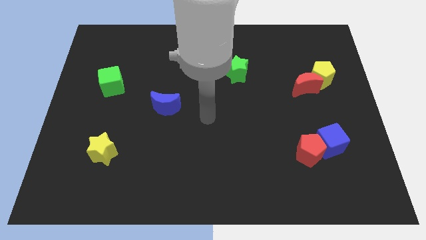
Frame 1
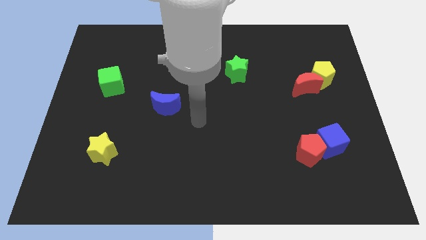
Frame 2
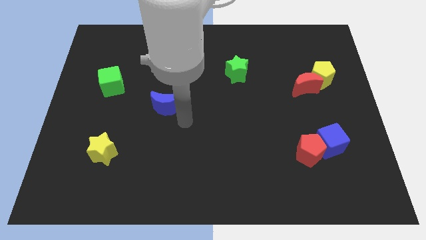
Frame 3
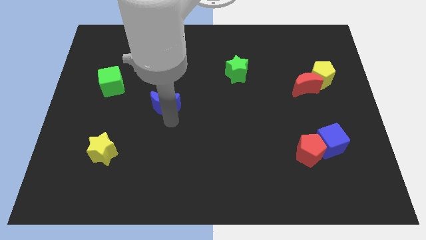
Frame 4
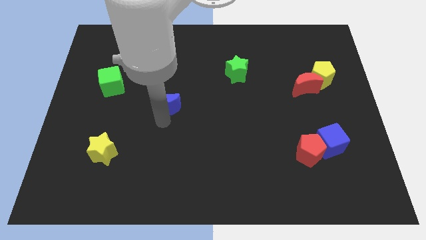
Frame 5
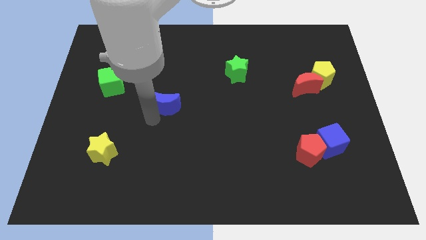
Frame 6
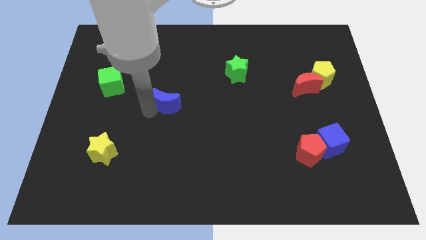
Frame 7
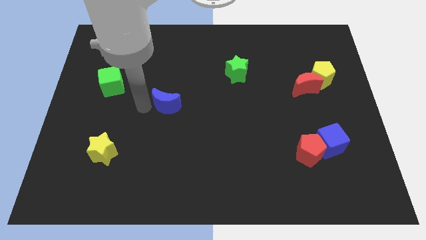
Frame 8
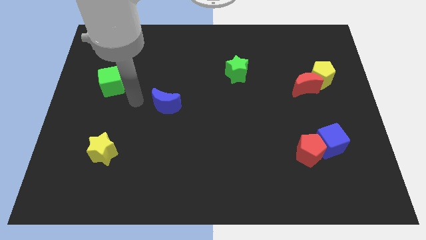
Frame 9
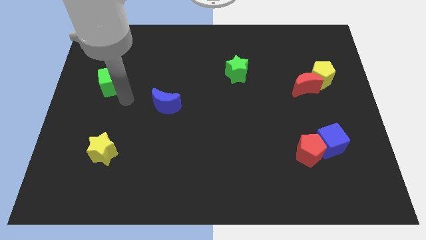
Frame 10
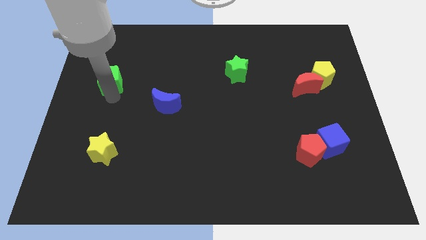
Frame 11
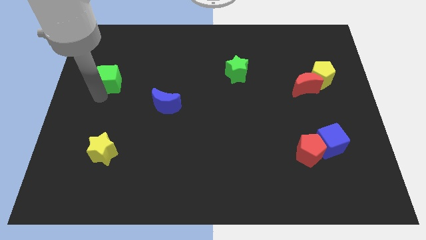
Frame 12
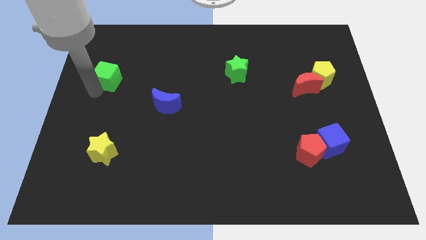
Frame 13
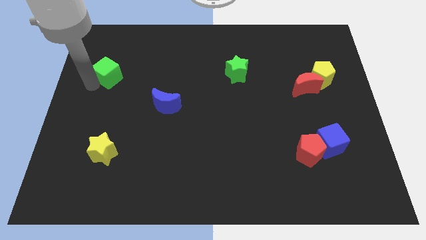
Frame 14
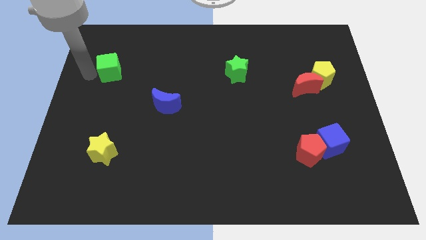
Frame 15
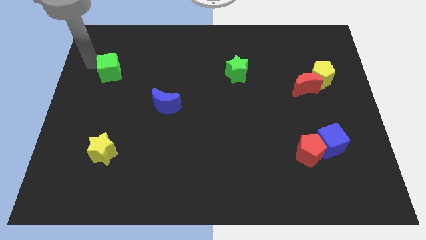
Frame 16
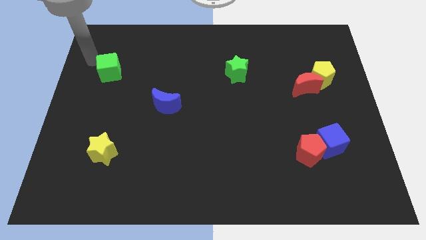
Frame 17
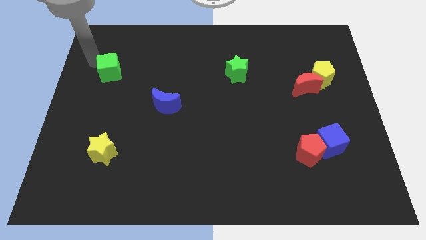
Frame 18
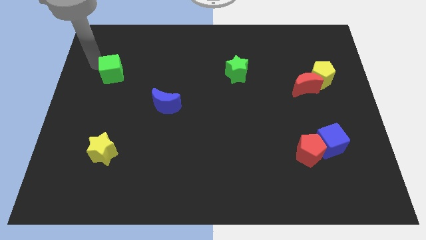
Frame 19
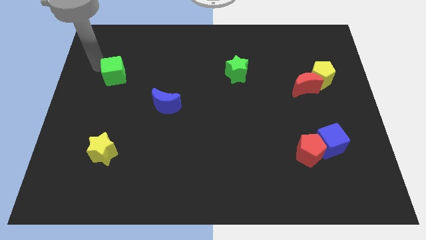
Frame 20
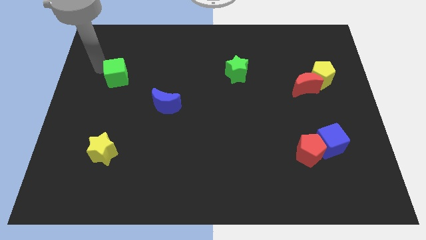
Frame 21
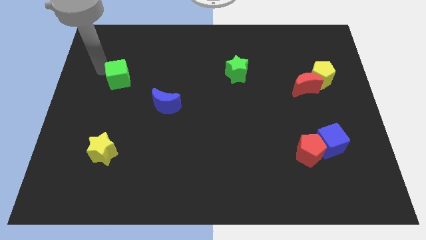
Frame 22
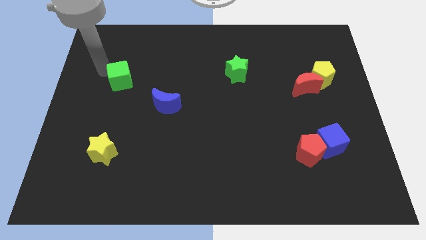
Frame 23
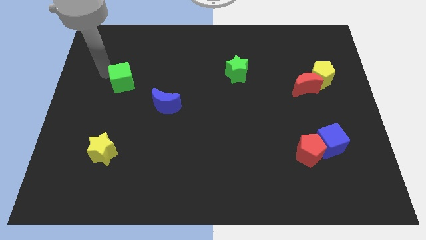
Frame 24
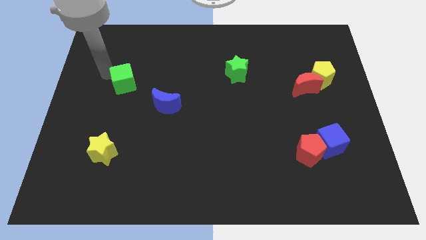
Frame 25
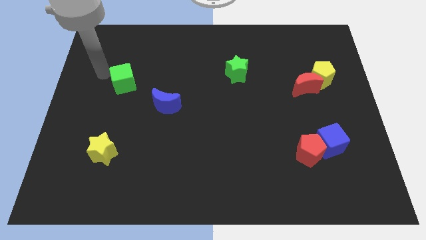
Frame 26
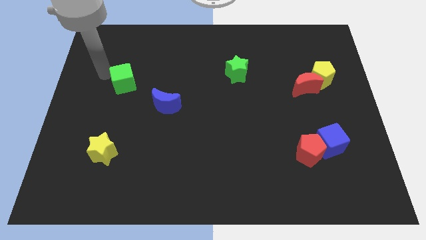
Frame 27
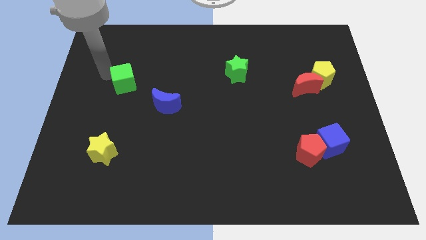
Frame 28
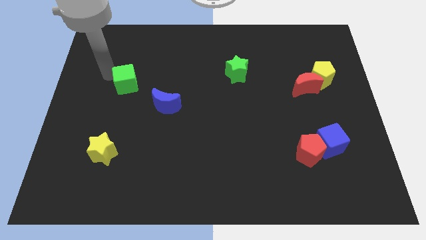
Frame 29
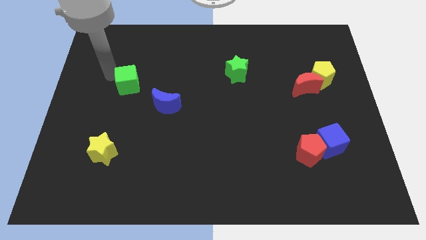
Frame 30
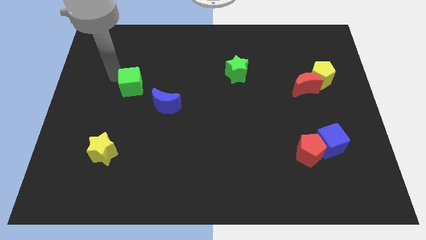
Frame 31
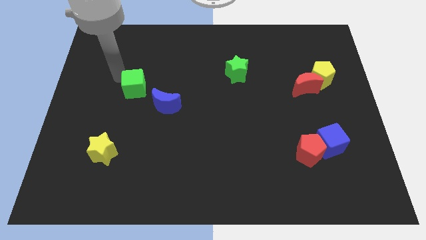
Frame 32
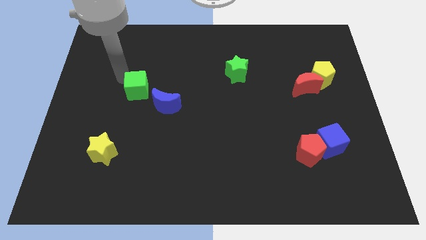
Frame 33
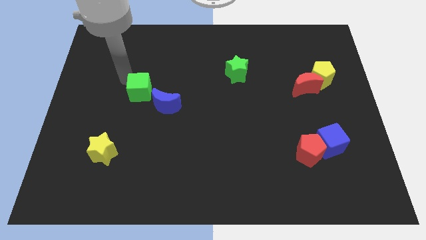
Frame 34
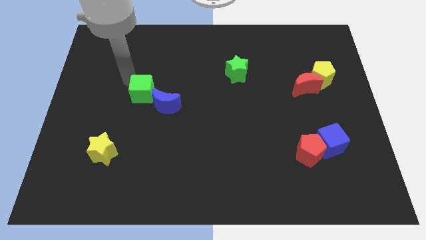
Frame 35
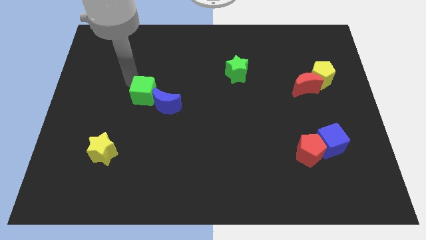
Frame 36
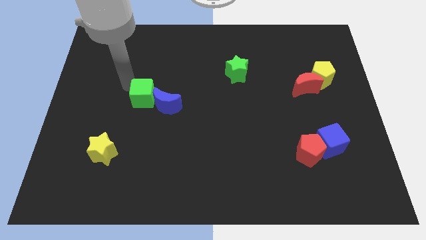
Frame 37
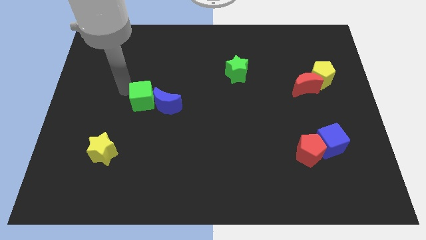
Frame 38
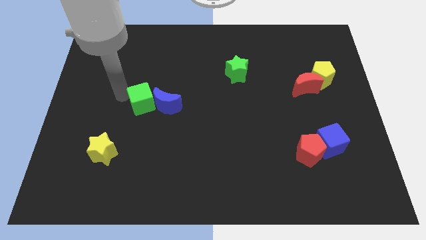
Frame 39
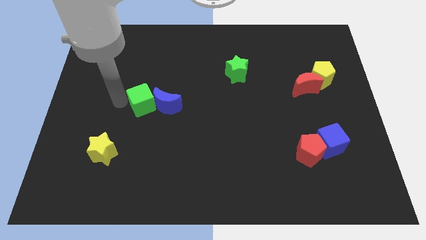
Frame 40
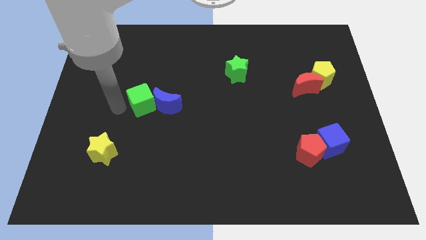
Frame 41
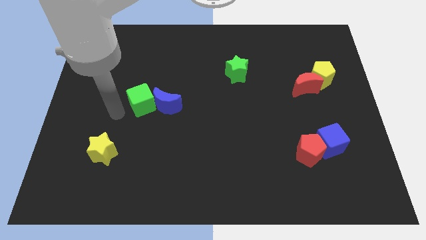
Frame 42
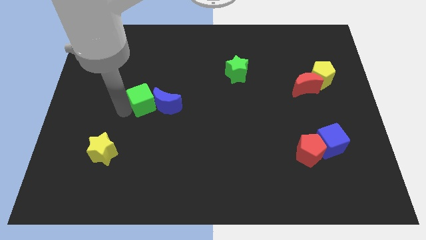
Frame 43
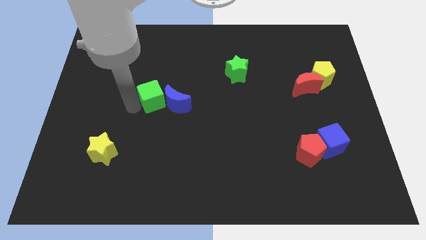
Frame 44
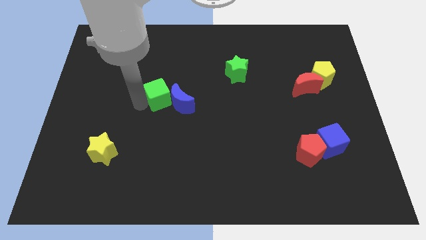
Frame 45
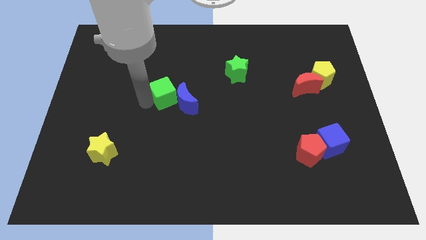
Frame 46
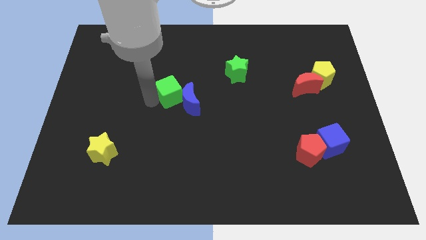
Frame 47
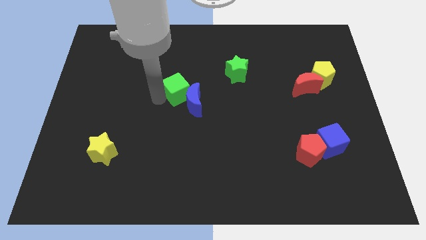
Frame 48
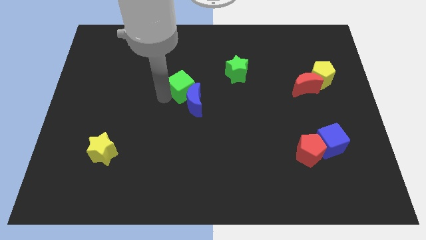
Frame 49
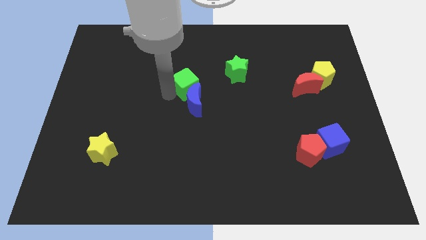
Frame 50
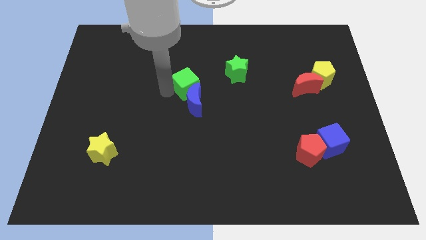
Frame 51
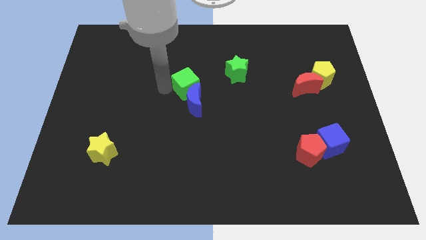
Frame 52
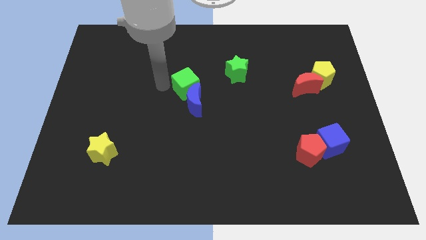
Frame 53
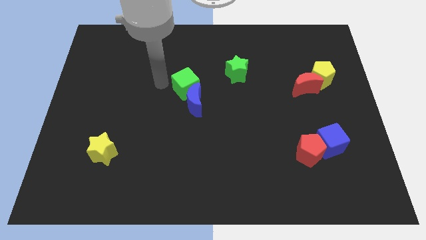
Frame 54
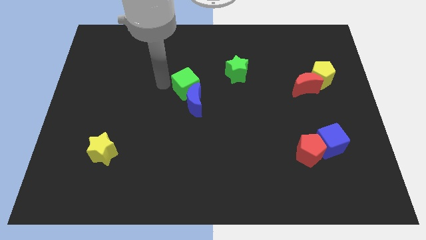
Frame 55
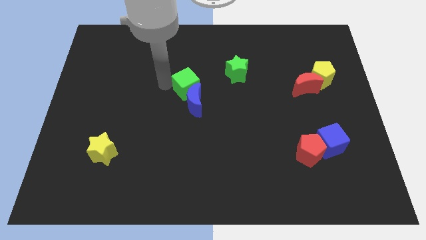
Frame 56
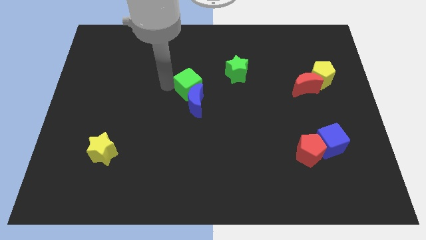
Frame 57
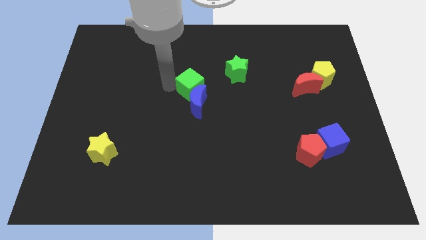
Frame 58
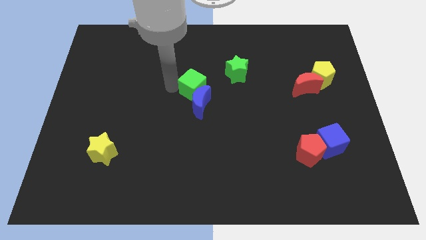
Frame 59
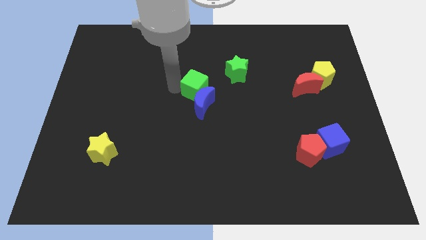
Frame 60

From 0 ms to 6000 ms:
move the green cube to the bottom left of the green star
